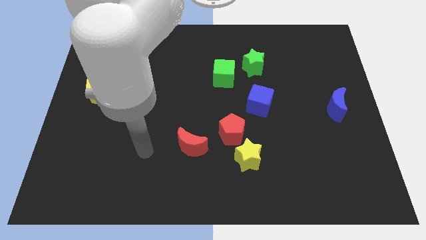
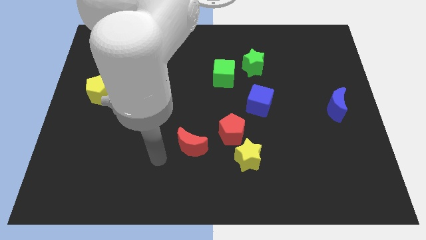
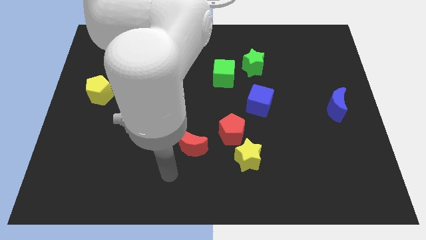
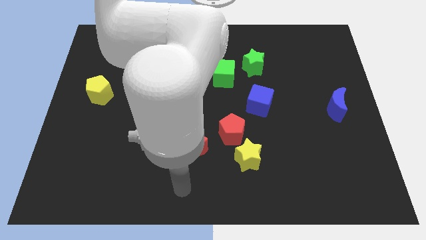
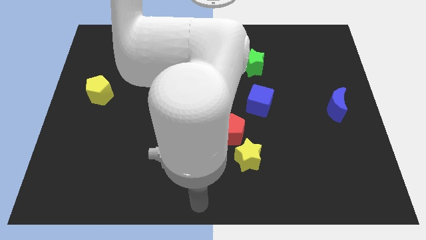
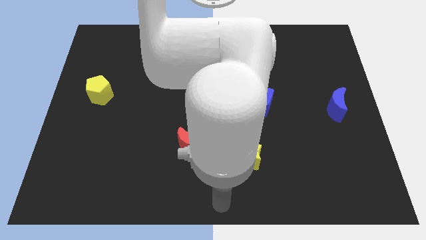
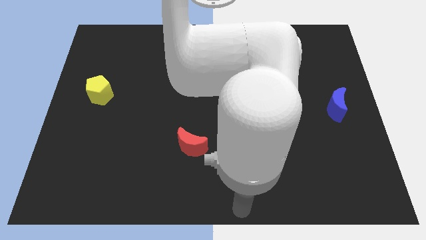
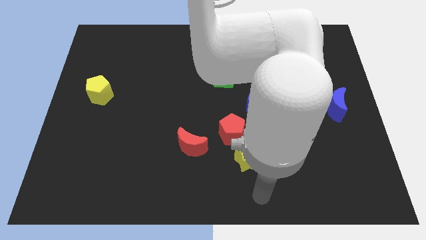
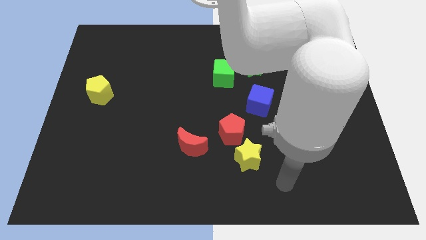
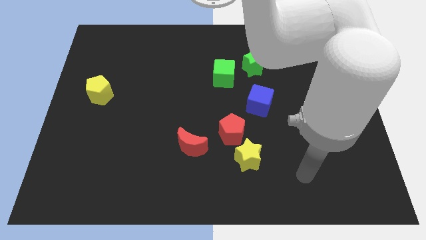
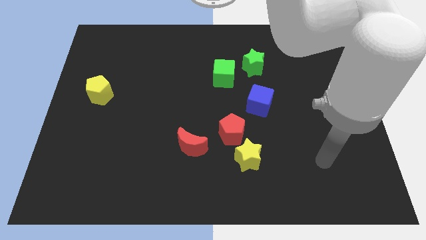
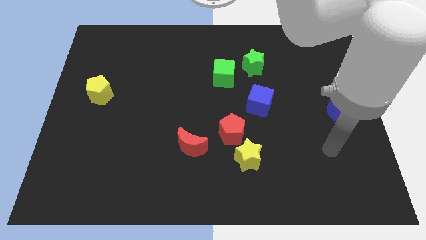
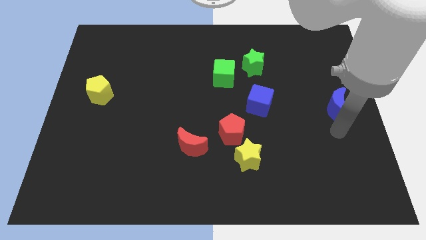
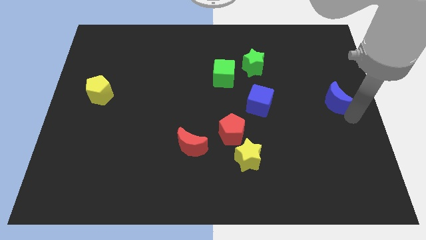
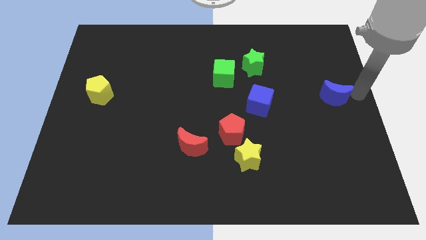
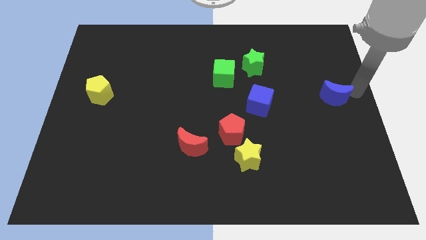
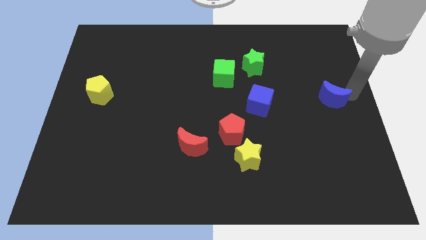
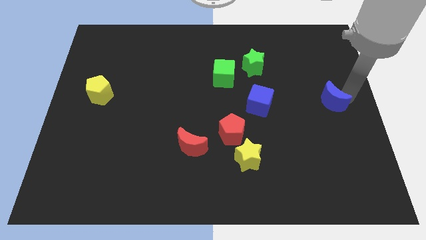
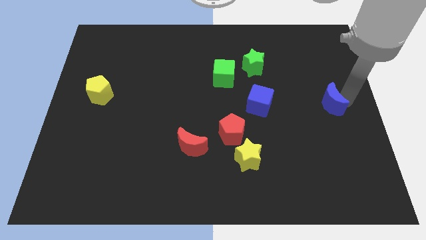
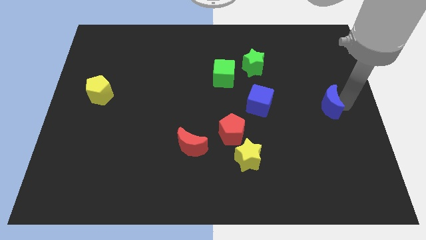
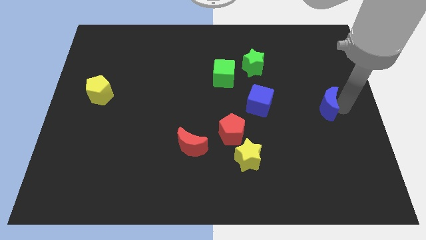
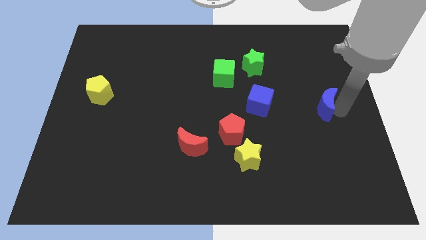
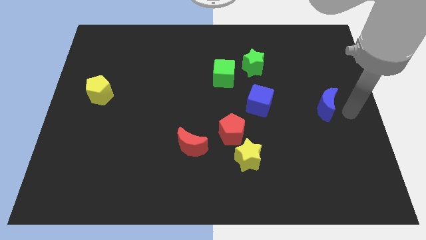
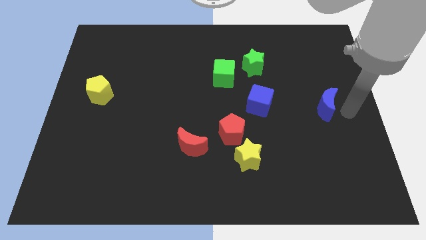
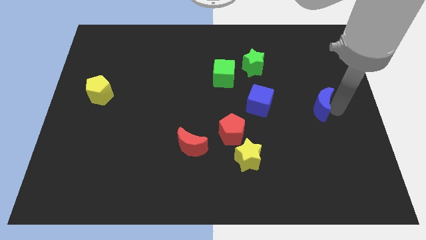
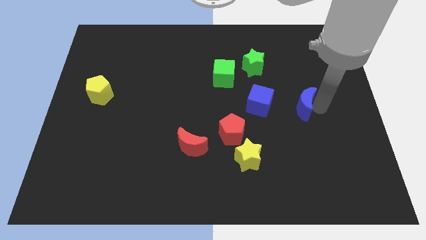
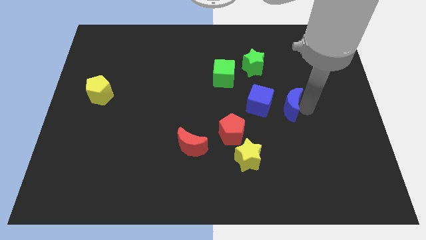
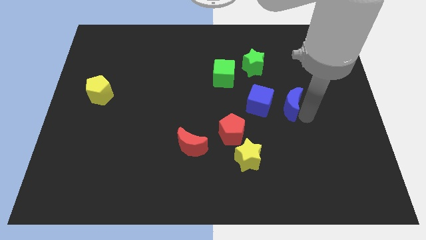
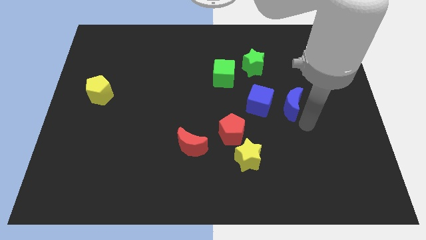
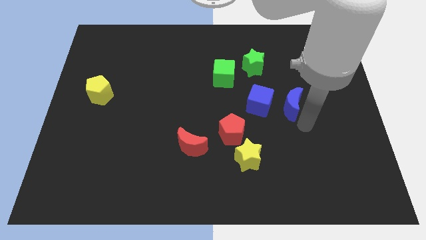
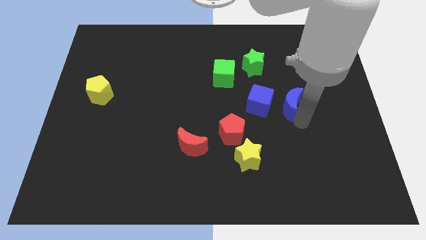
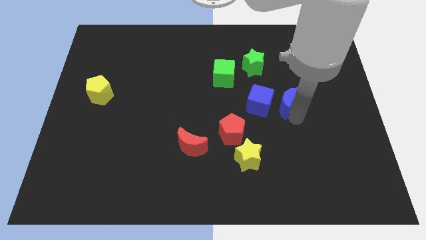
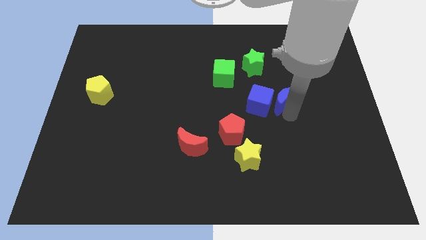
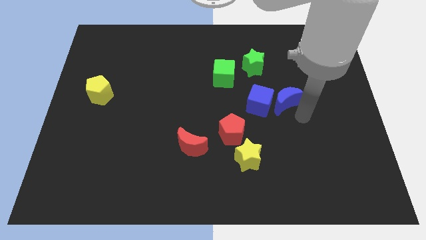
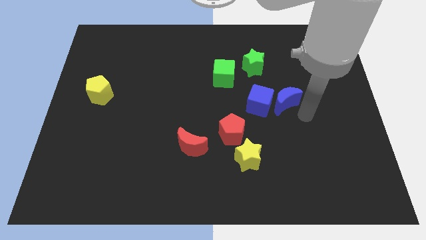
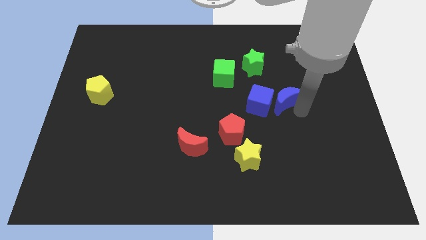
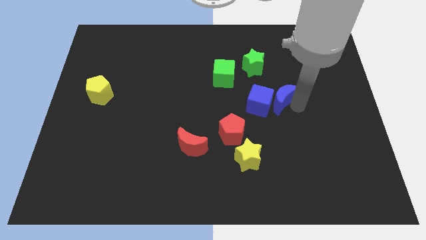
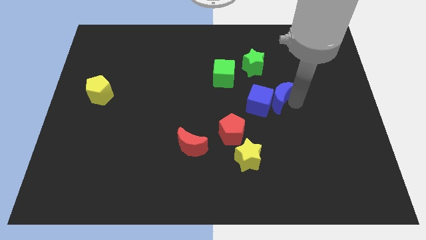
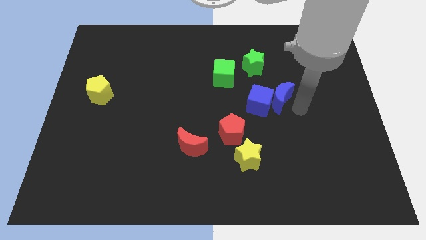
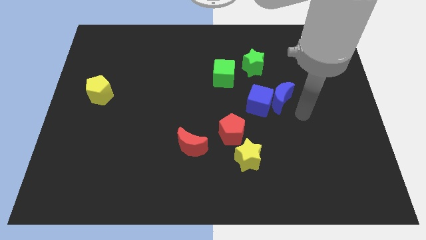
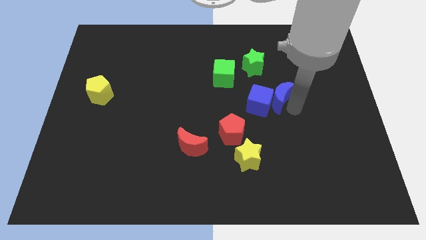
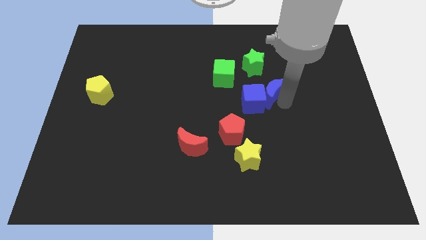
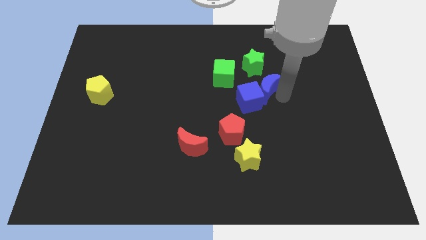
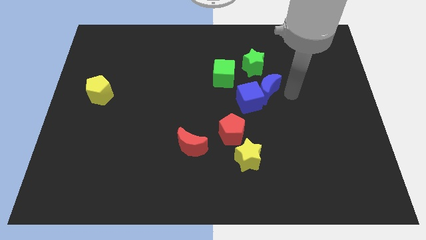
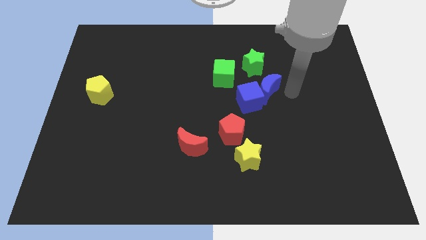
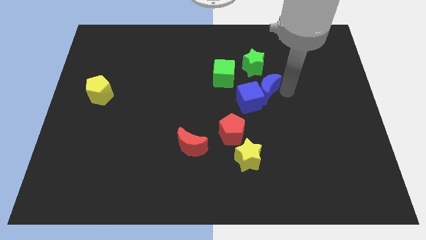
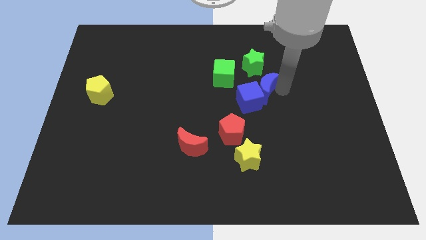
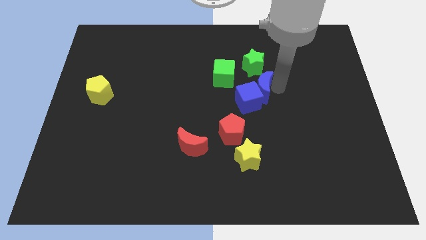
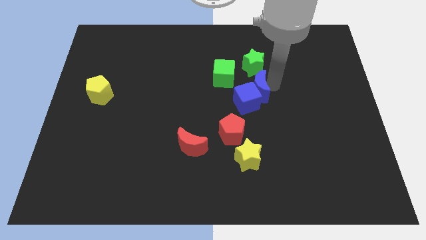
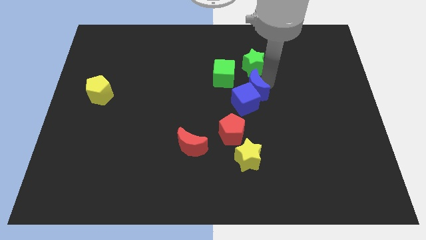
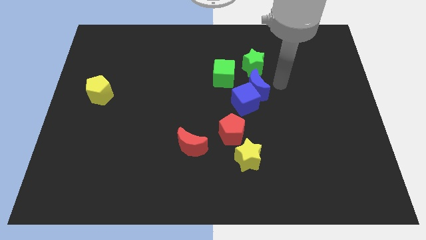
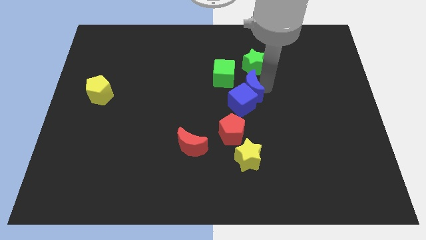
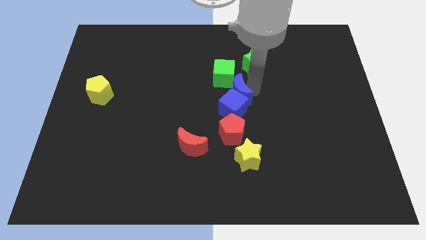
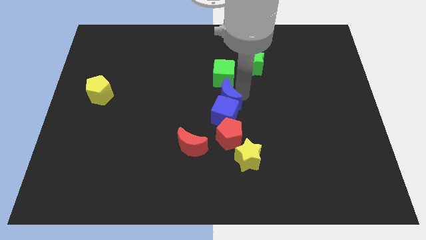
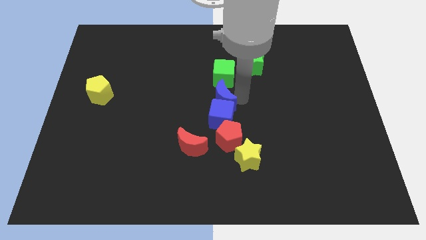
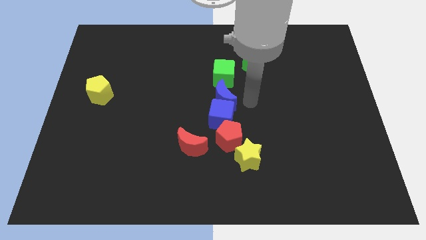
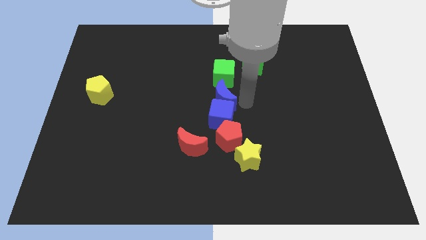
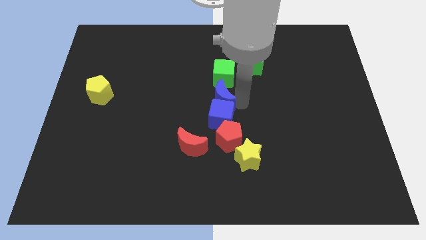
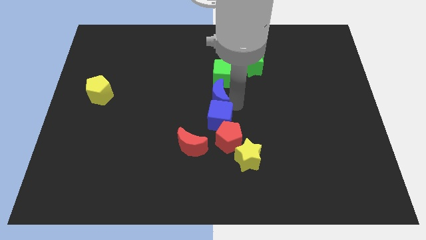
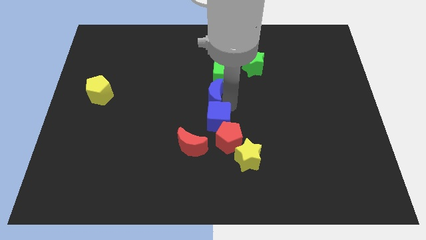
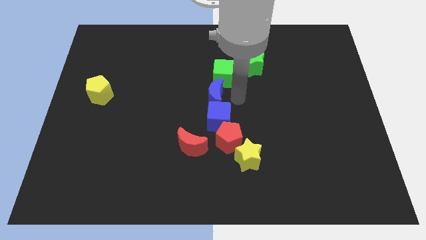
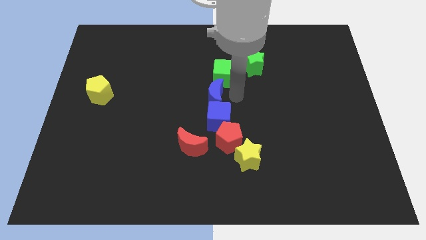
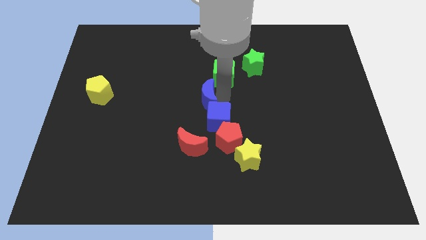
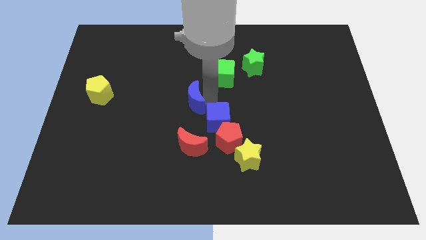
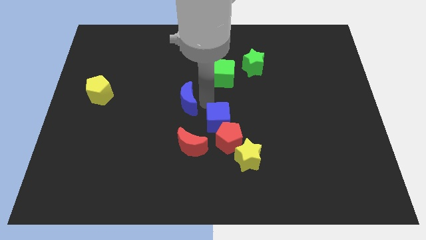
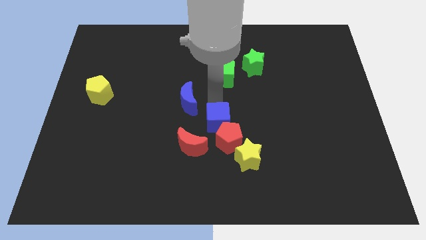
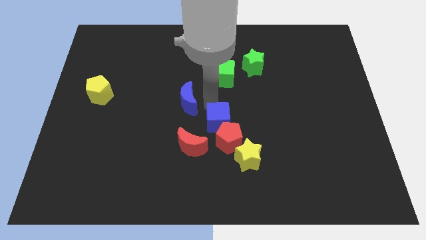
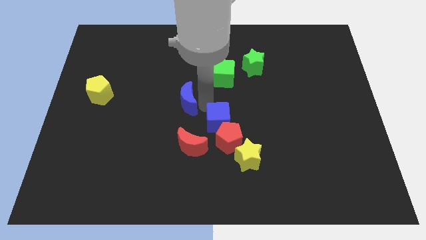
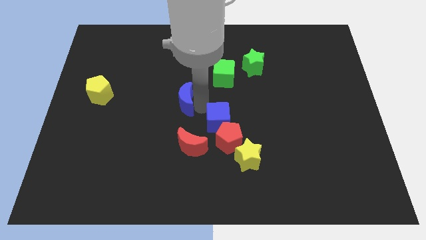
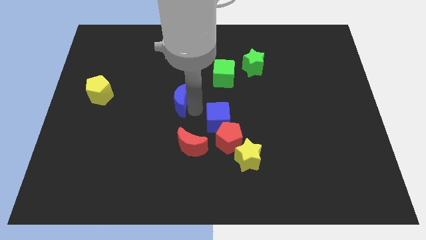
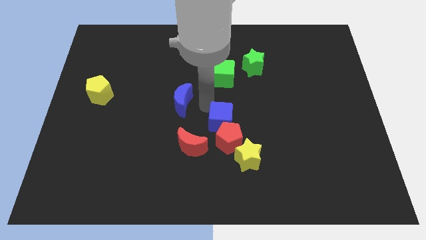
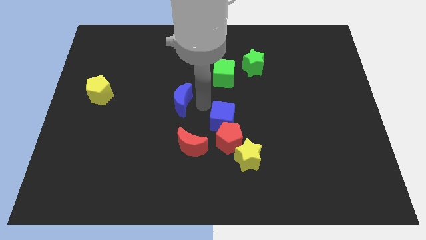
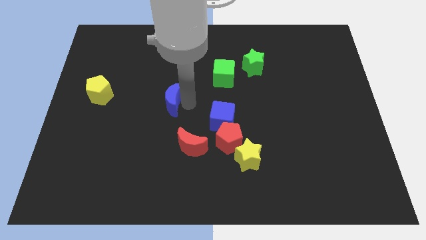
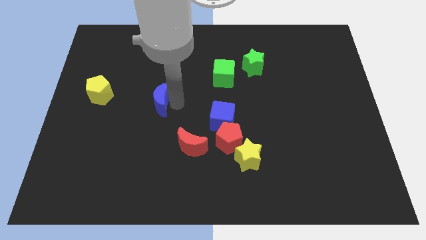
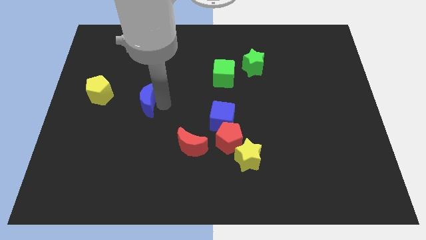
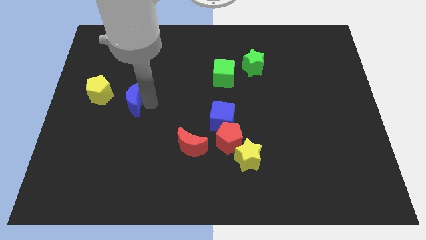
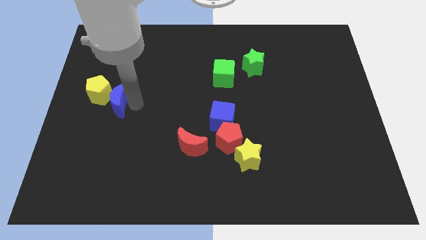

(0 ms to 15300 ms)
slide the blue moon to the yellow pentagon

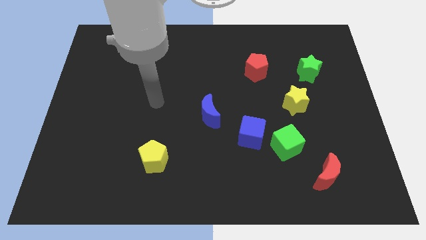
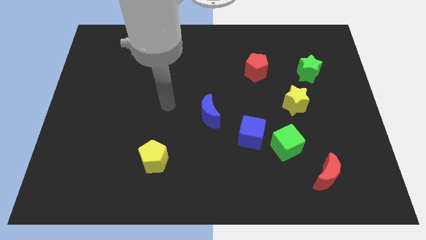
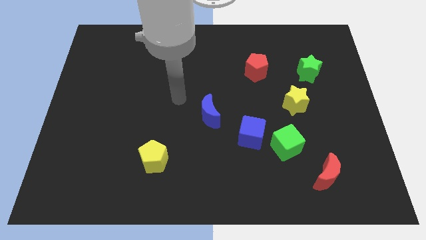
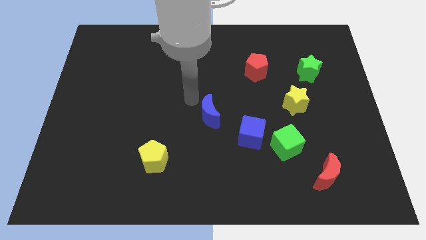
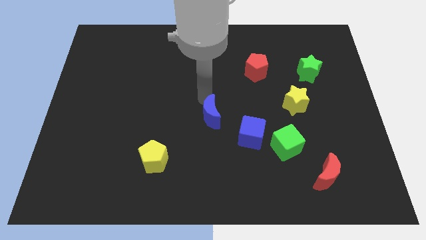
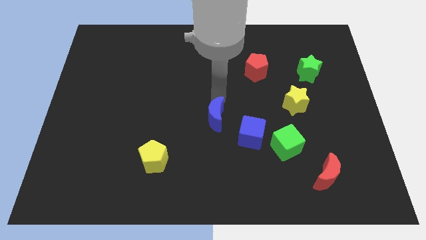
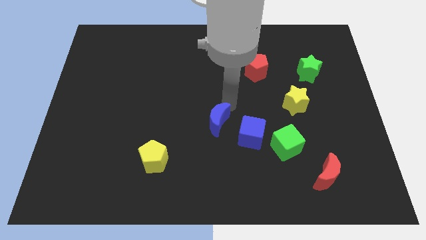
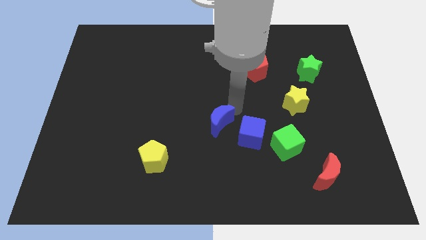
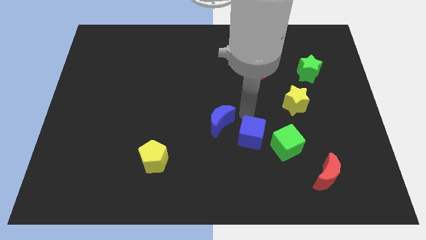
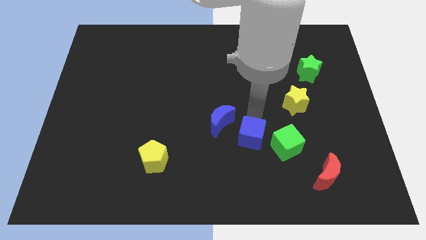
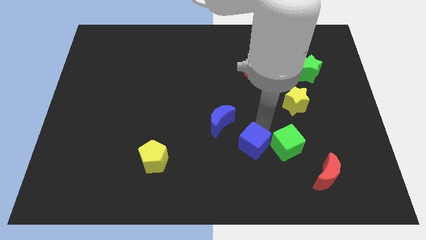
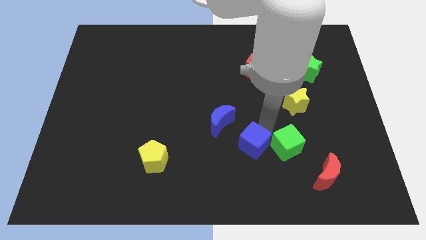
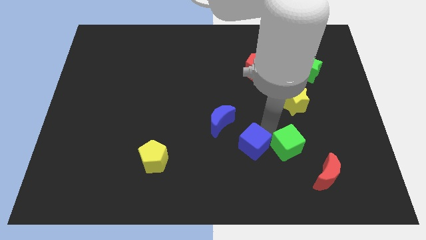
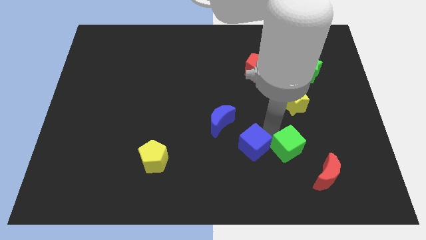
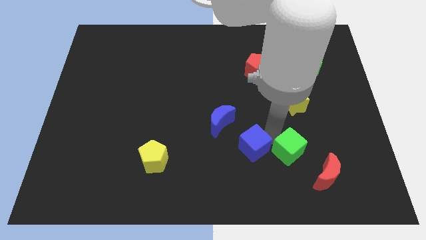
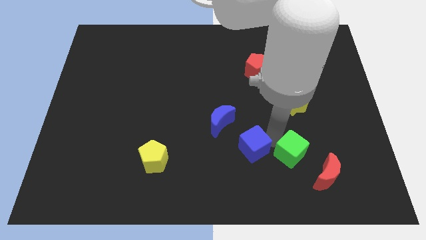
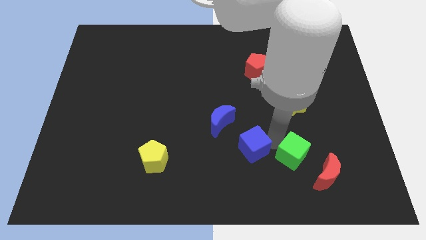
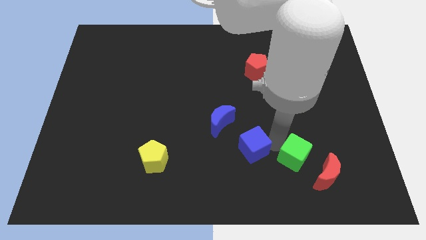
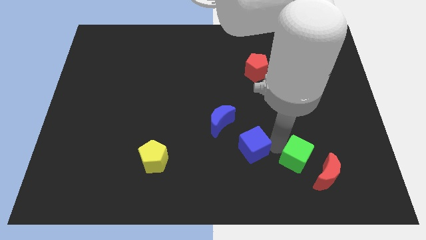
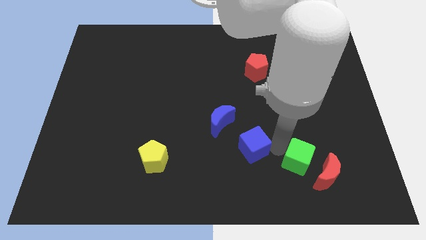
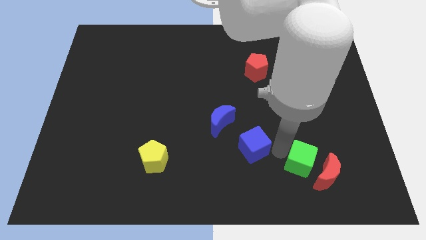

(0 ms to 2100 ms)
move the green cube to the red moon
